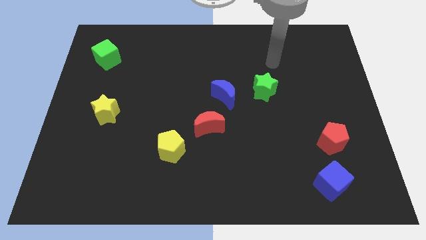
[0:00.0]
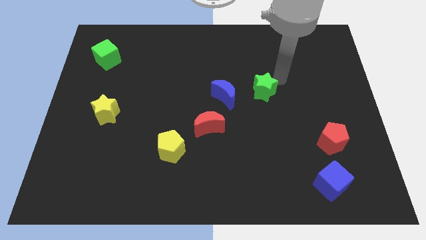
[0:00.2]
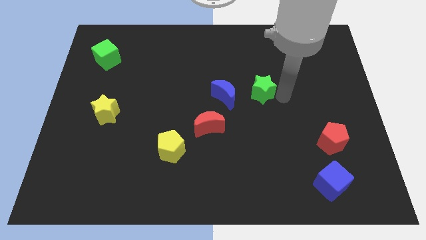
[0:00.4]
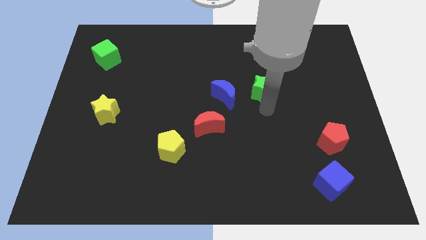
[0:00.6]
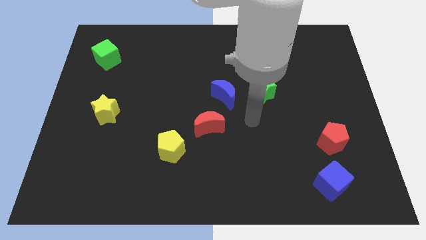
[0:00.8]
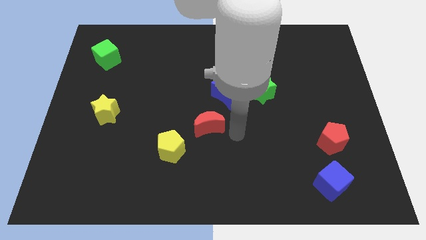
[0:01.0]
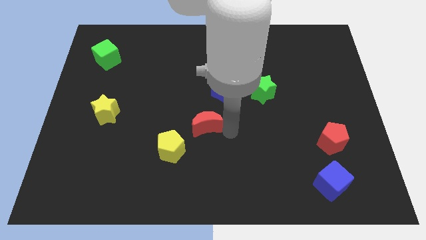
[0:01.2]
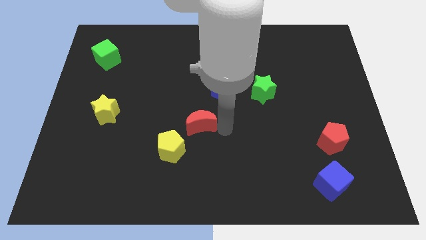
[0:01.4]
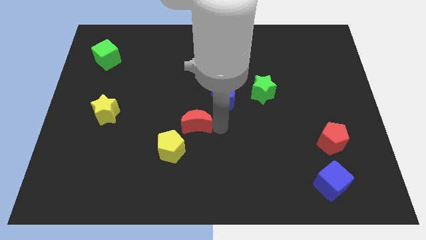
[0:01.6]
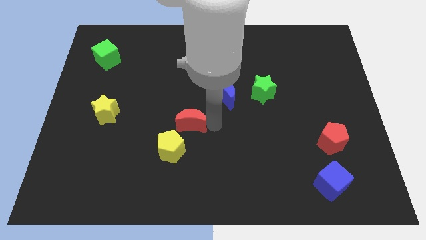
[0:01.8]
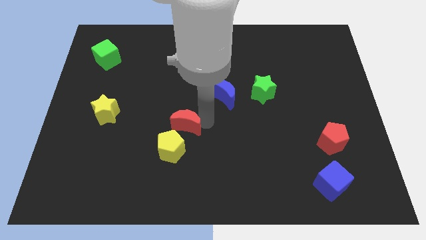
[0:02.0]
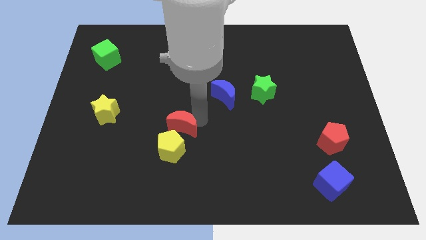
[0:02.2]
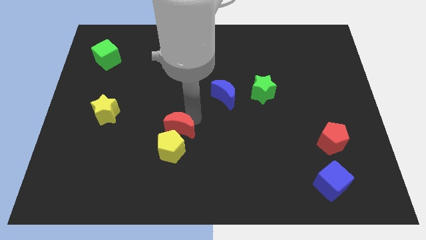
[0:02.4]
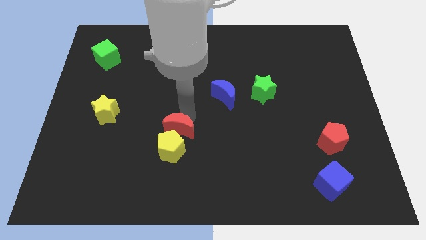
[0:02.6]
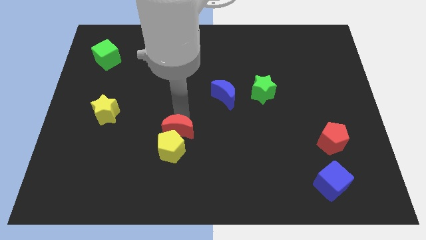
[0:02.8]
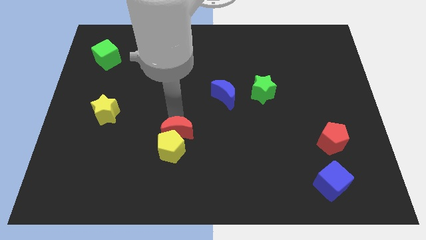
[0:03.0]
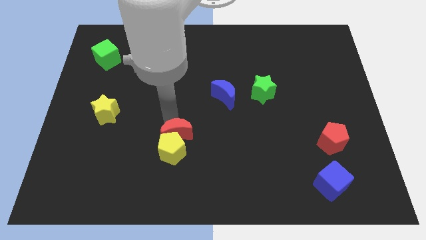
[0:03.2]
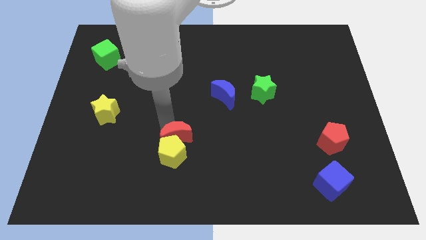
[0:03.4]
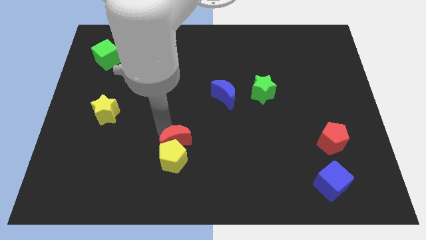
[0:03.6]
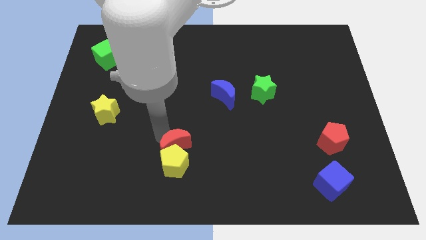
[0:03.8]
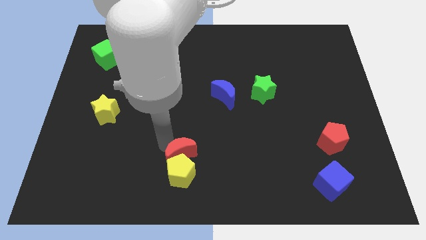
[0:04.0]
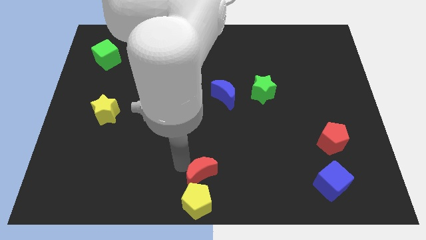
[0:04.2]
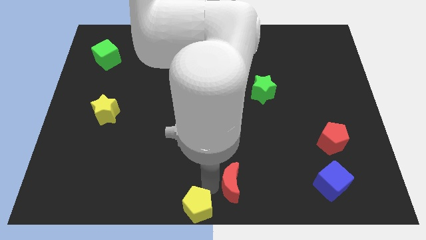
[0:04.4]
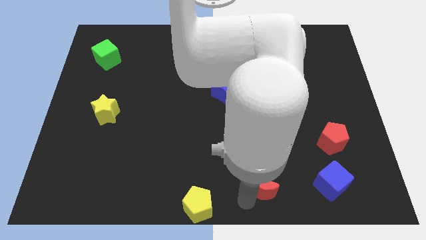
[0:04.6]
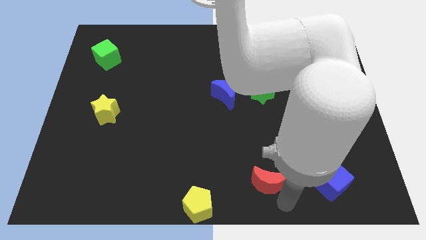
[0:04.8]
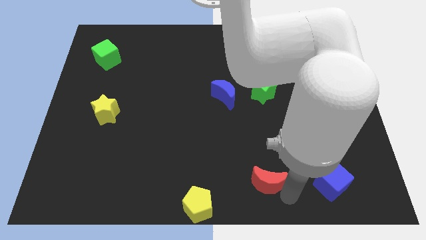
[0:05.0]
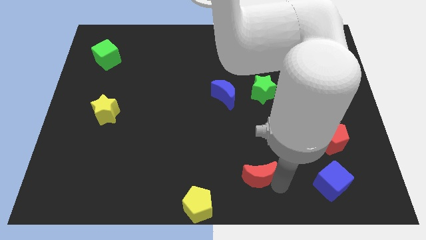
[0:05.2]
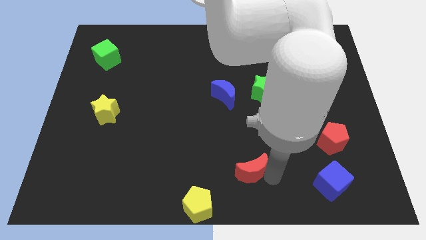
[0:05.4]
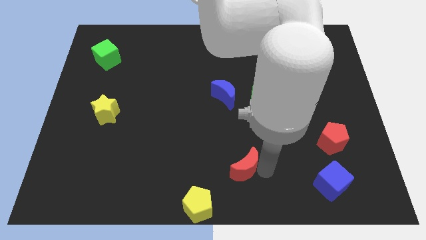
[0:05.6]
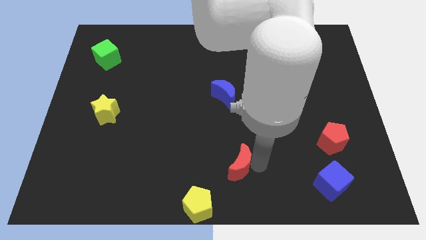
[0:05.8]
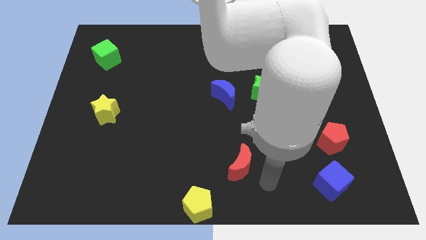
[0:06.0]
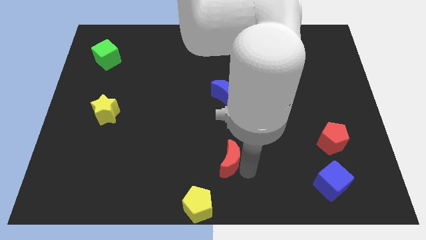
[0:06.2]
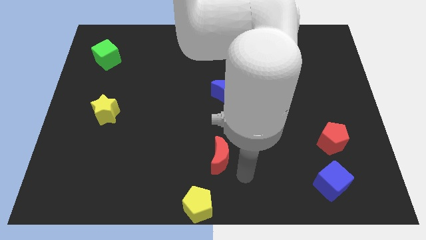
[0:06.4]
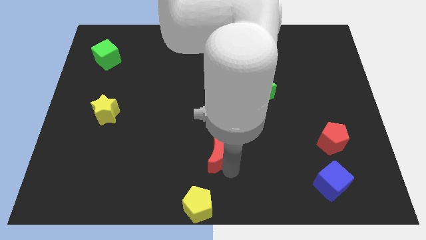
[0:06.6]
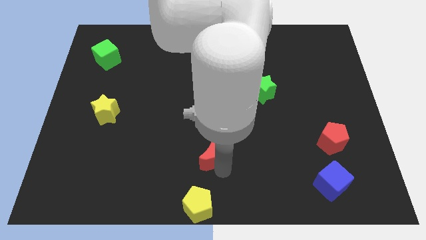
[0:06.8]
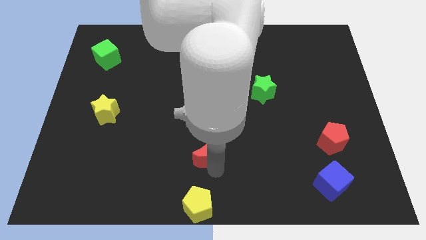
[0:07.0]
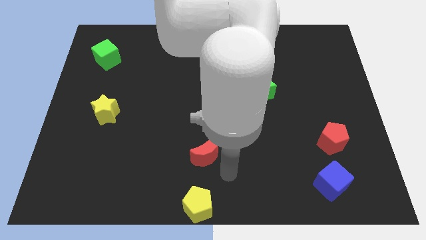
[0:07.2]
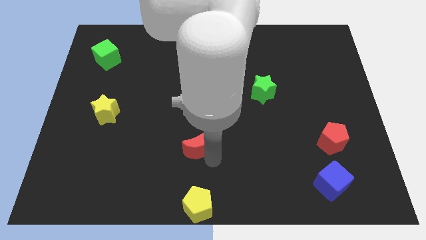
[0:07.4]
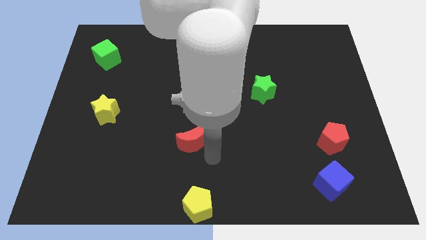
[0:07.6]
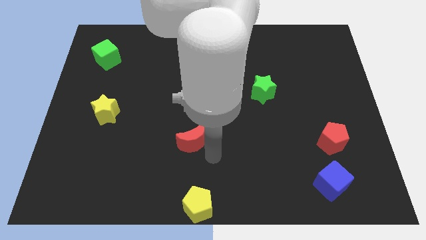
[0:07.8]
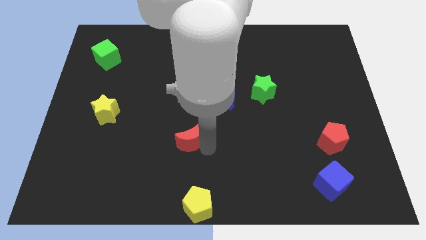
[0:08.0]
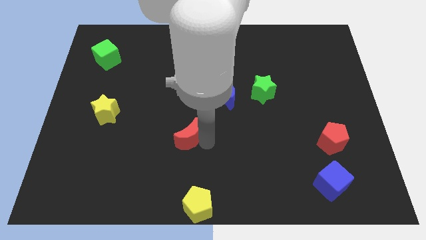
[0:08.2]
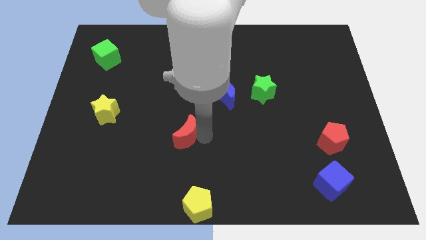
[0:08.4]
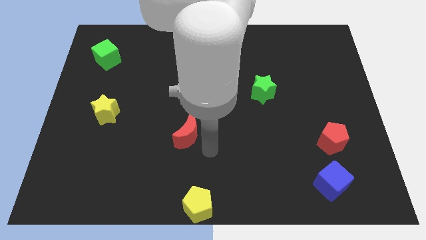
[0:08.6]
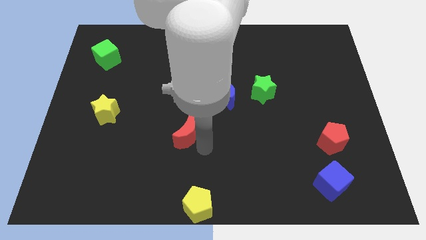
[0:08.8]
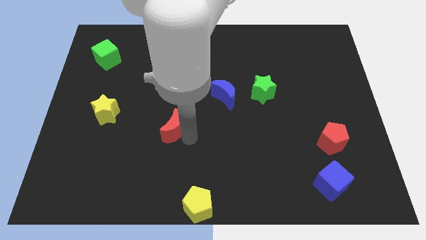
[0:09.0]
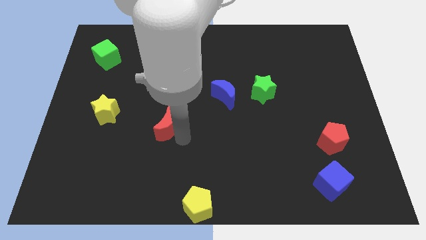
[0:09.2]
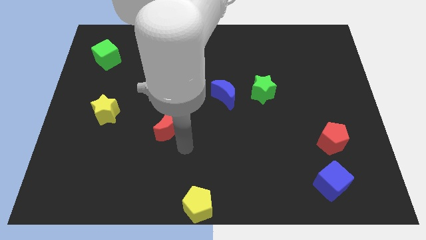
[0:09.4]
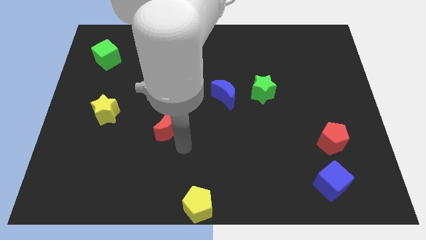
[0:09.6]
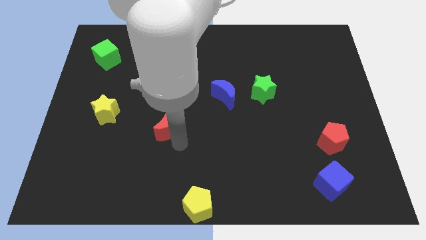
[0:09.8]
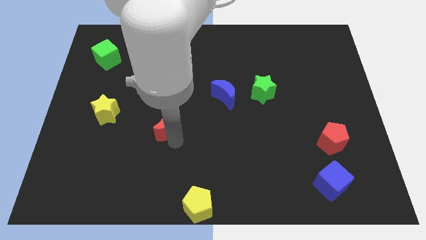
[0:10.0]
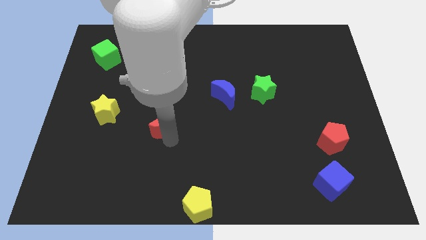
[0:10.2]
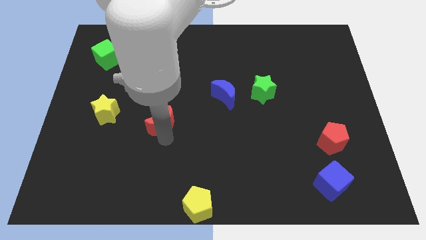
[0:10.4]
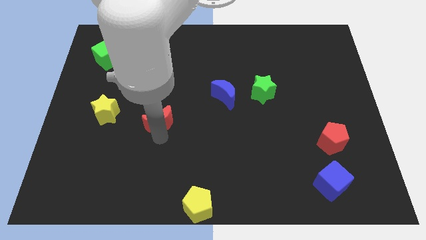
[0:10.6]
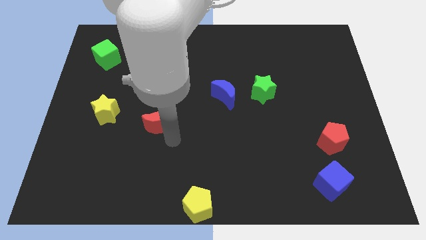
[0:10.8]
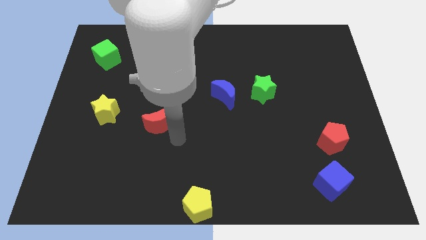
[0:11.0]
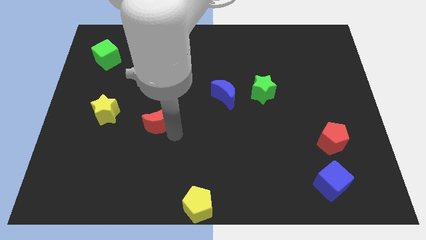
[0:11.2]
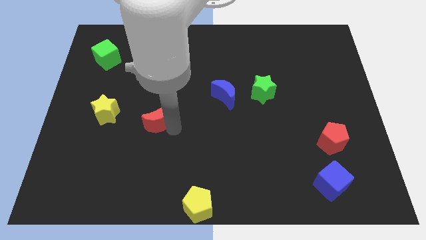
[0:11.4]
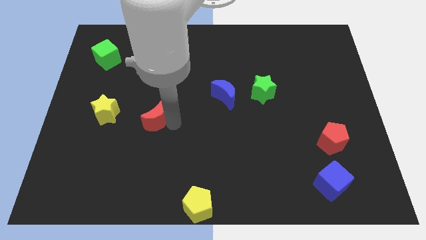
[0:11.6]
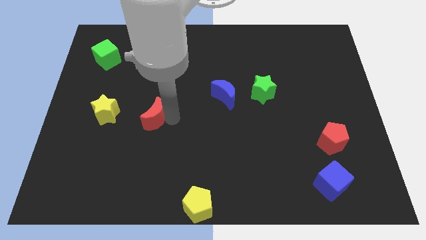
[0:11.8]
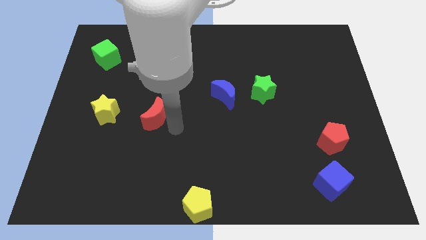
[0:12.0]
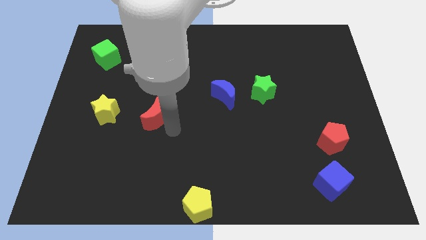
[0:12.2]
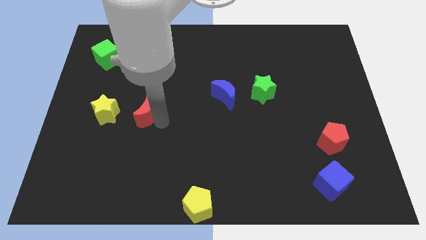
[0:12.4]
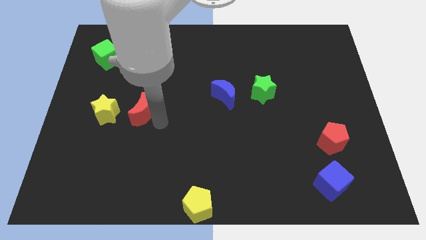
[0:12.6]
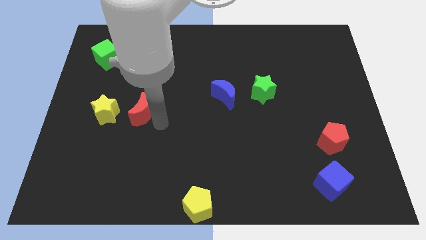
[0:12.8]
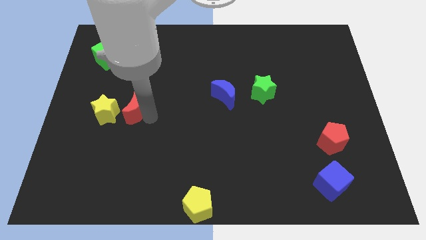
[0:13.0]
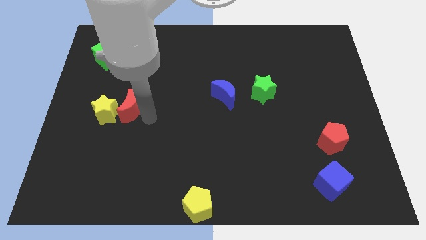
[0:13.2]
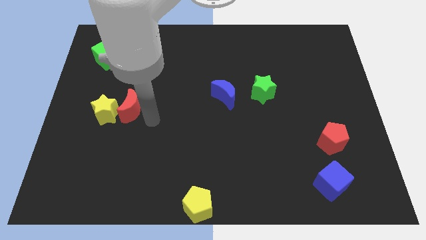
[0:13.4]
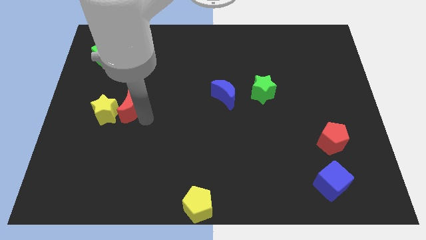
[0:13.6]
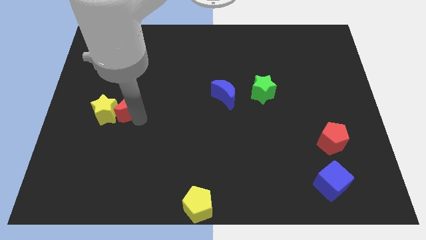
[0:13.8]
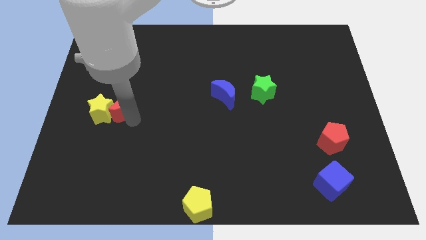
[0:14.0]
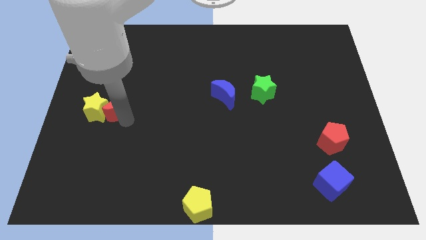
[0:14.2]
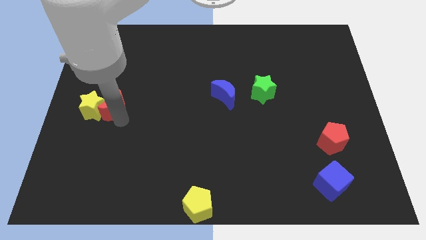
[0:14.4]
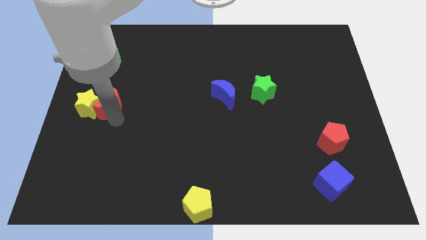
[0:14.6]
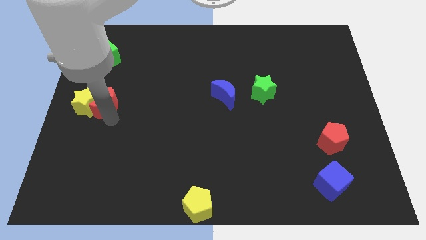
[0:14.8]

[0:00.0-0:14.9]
push the red moon to the left side of the board
